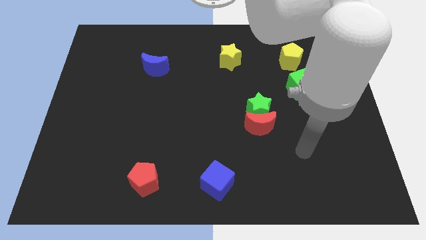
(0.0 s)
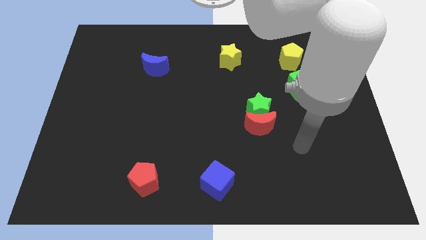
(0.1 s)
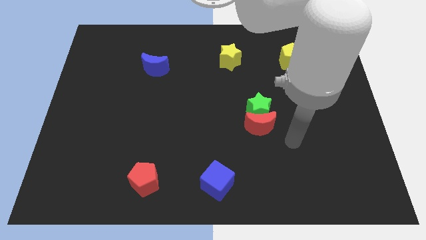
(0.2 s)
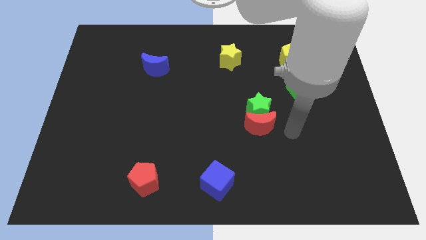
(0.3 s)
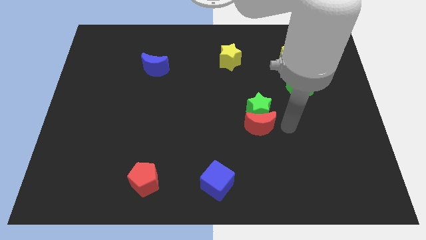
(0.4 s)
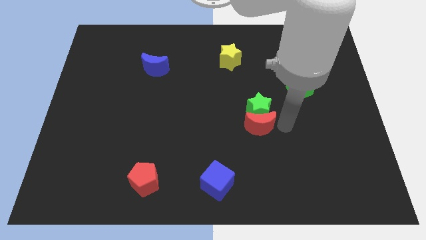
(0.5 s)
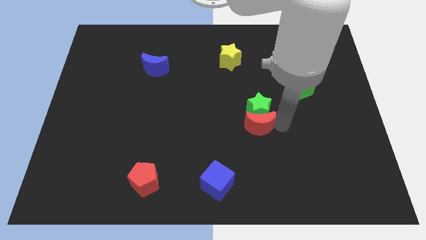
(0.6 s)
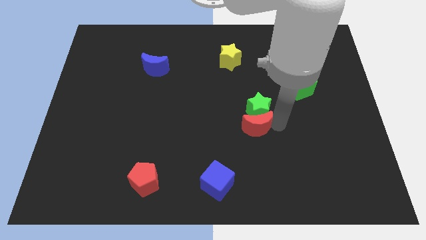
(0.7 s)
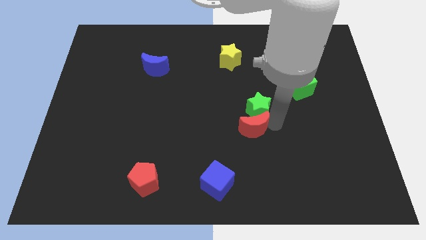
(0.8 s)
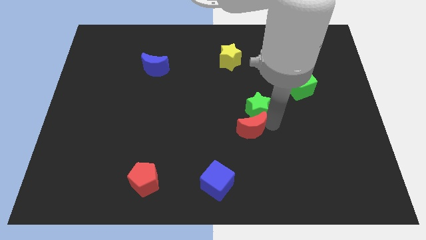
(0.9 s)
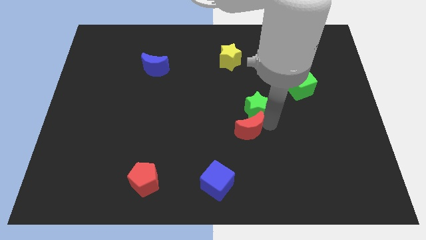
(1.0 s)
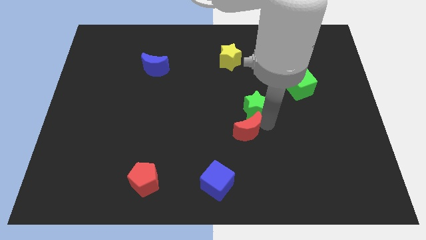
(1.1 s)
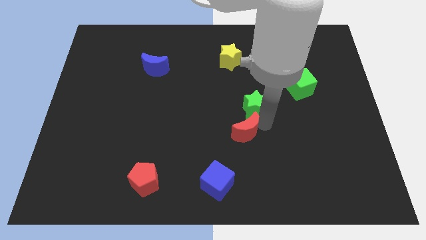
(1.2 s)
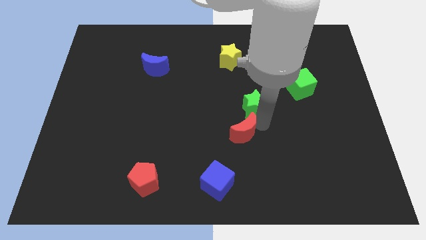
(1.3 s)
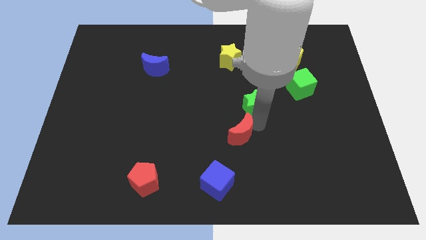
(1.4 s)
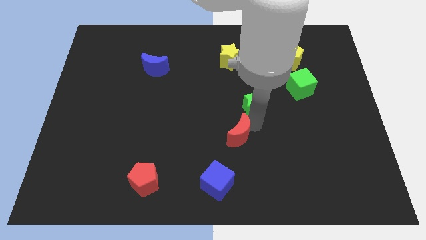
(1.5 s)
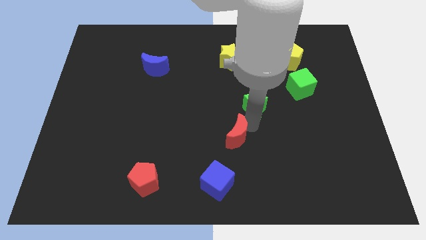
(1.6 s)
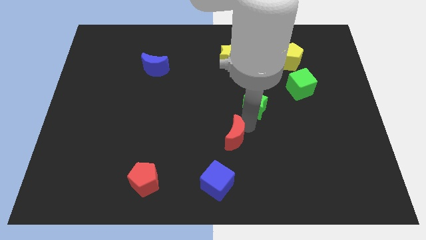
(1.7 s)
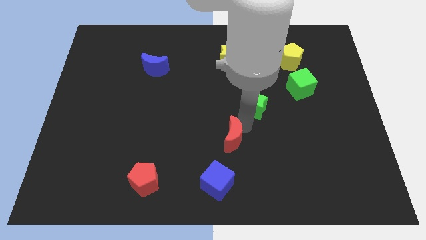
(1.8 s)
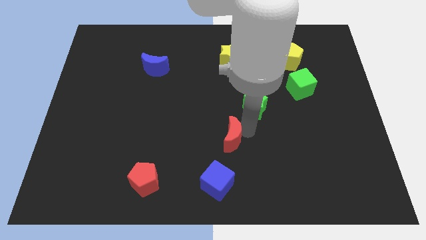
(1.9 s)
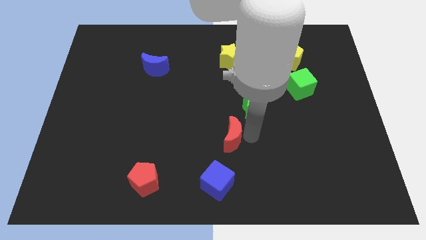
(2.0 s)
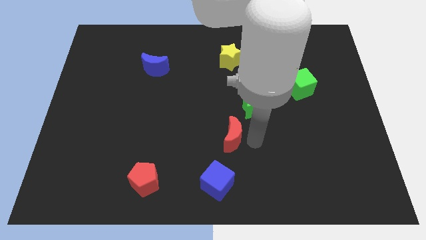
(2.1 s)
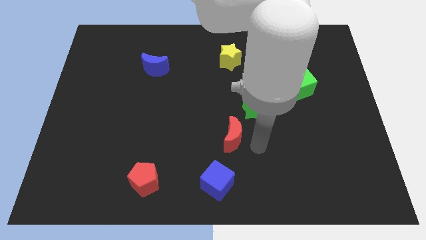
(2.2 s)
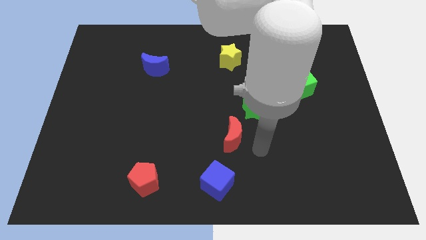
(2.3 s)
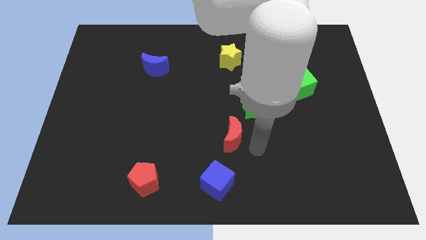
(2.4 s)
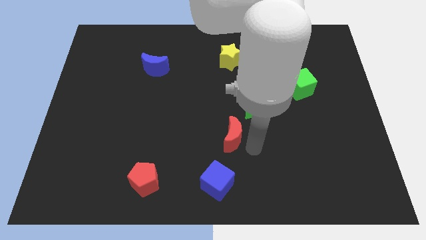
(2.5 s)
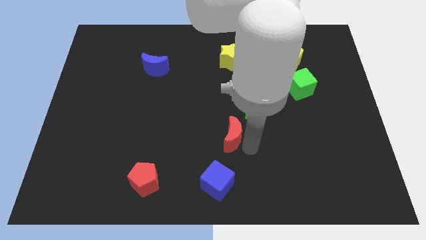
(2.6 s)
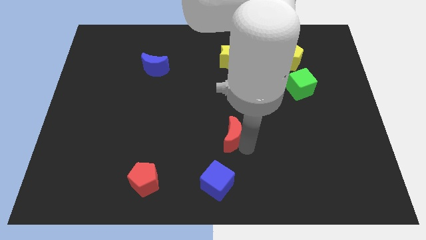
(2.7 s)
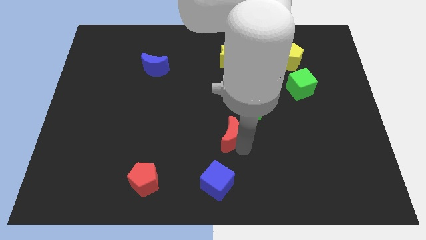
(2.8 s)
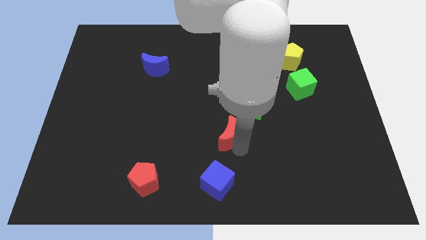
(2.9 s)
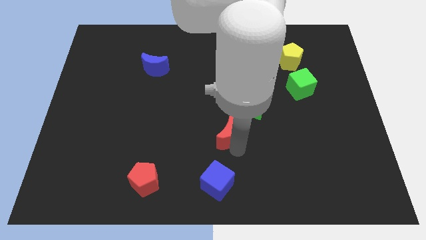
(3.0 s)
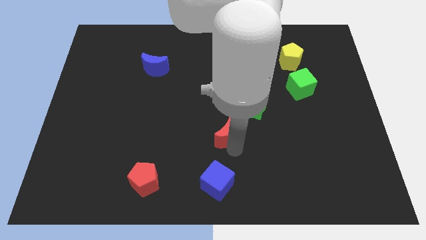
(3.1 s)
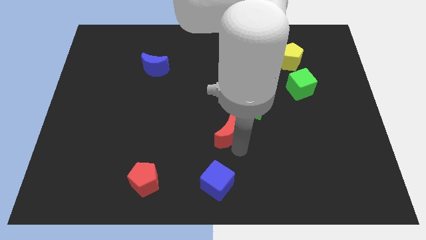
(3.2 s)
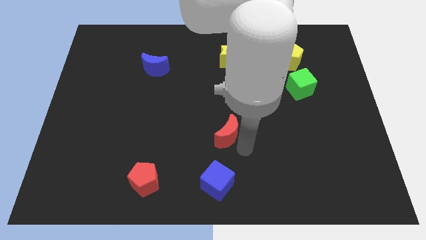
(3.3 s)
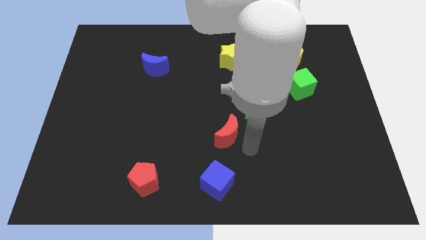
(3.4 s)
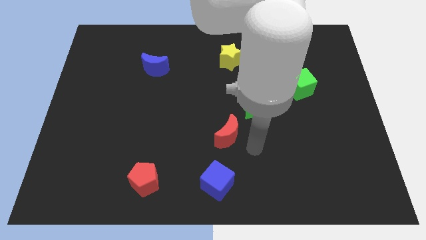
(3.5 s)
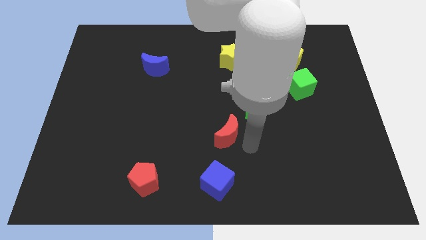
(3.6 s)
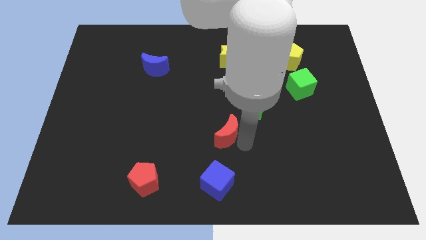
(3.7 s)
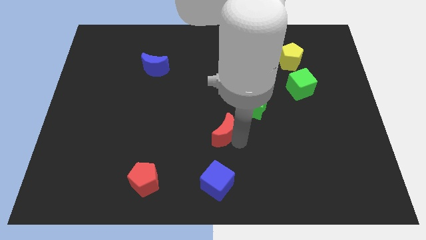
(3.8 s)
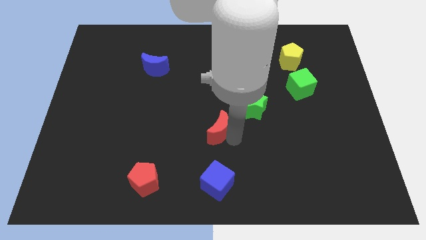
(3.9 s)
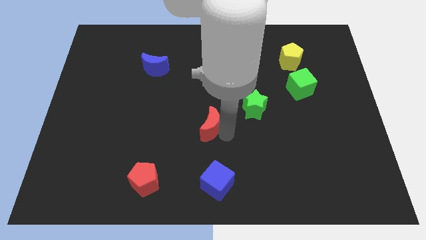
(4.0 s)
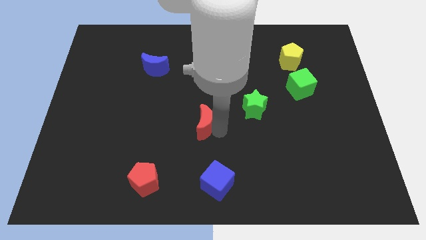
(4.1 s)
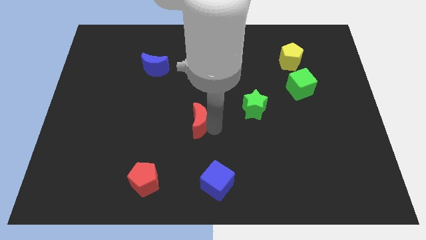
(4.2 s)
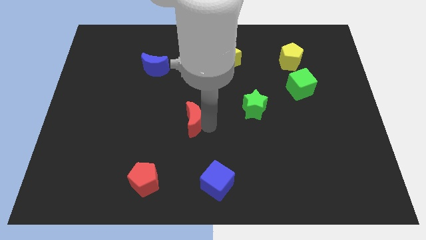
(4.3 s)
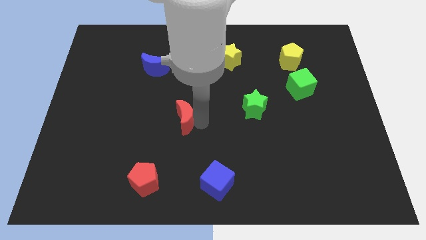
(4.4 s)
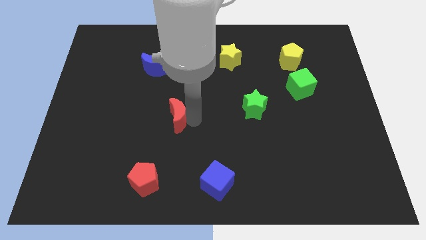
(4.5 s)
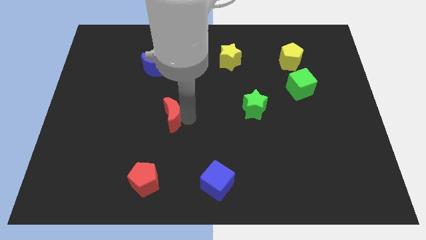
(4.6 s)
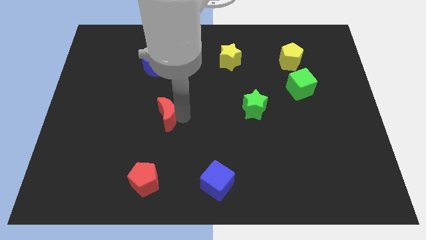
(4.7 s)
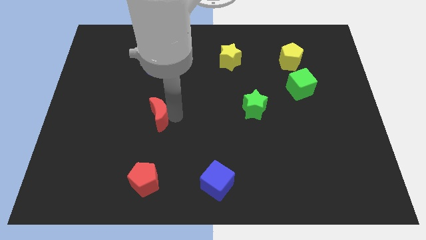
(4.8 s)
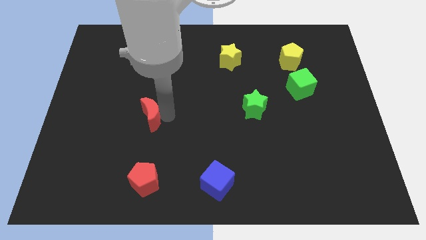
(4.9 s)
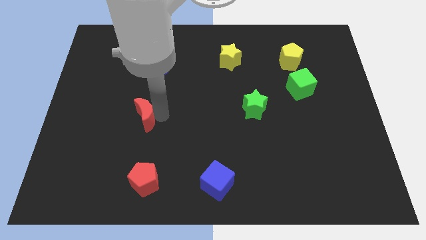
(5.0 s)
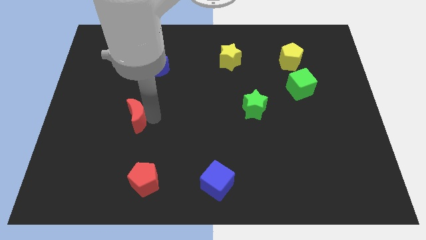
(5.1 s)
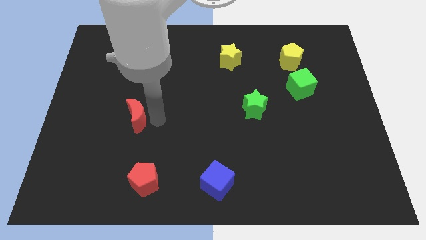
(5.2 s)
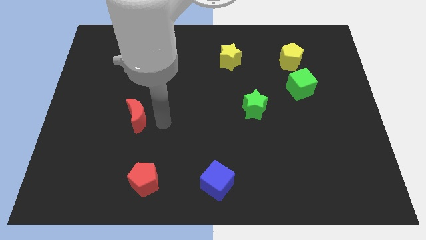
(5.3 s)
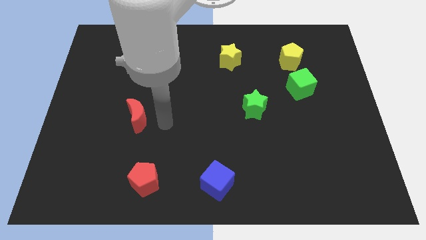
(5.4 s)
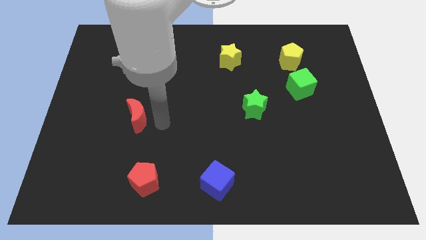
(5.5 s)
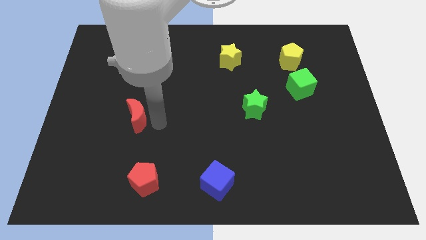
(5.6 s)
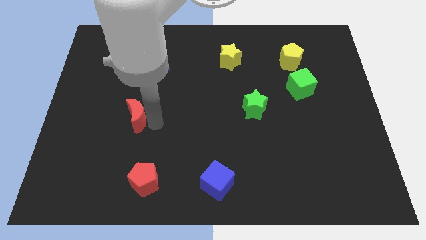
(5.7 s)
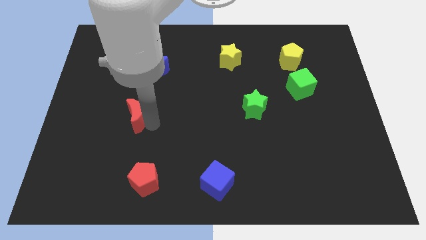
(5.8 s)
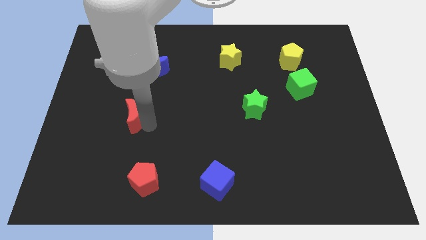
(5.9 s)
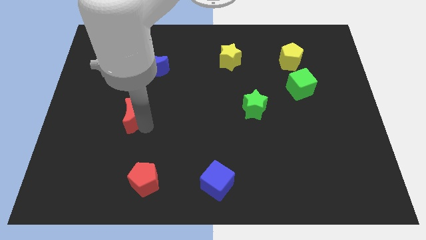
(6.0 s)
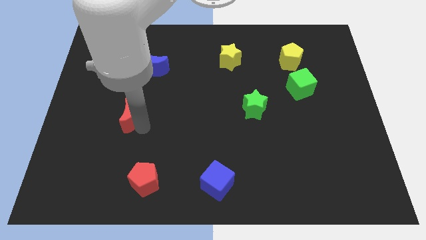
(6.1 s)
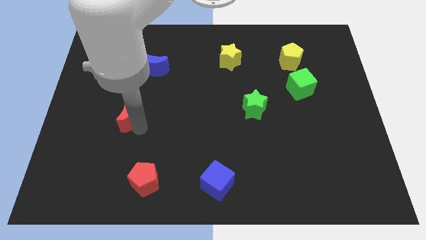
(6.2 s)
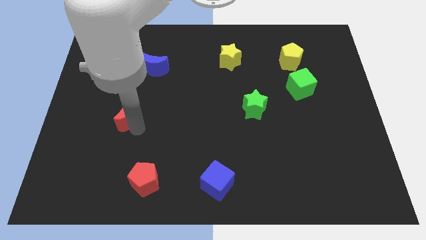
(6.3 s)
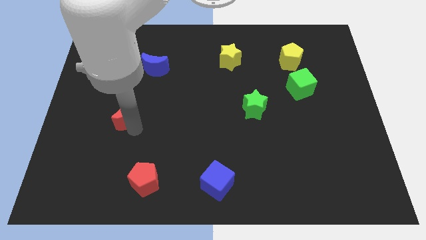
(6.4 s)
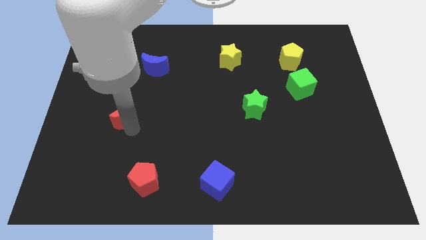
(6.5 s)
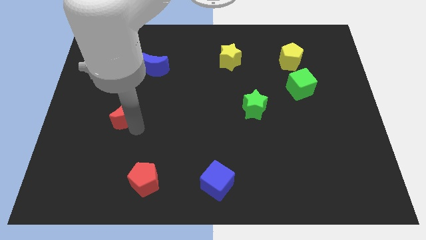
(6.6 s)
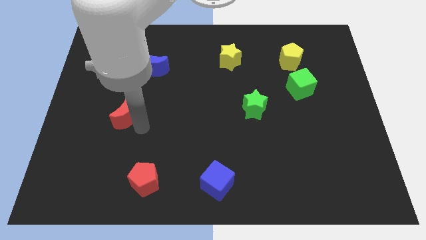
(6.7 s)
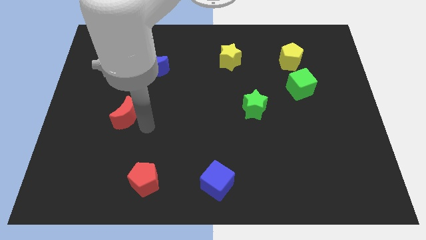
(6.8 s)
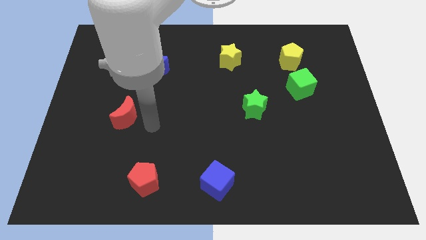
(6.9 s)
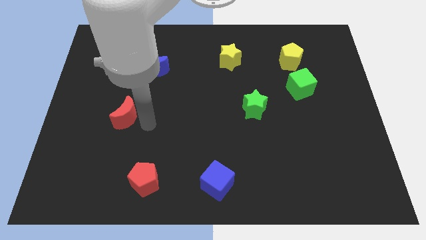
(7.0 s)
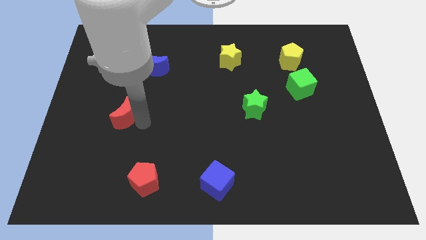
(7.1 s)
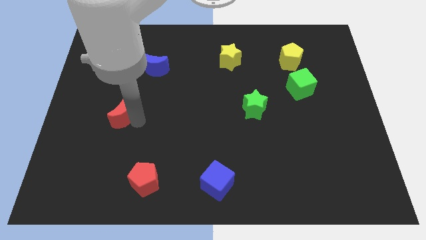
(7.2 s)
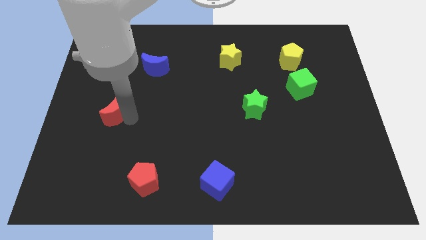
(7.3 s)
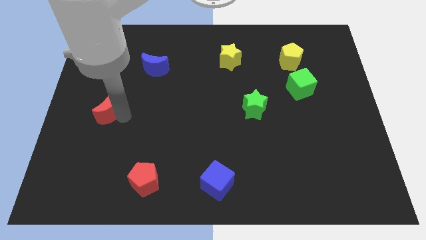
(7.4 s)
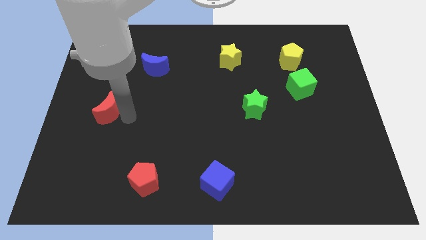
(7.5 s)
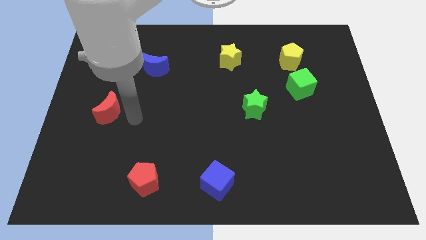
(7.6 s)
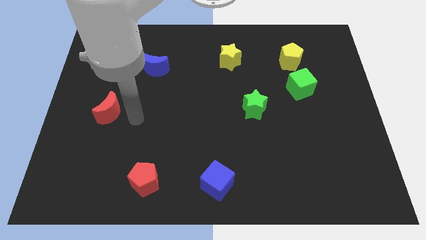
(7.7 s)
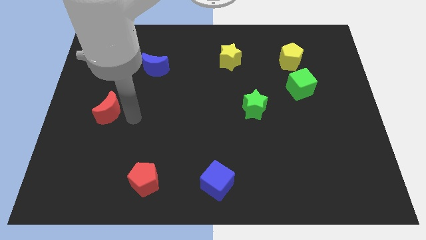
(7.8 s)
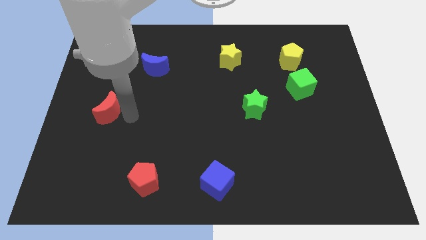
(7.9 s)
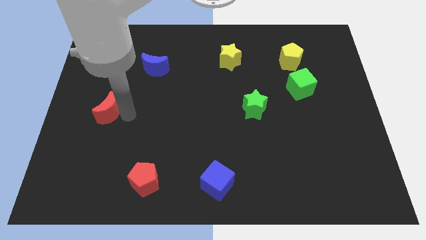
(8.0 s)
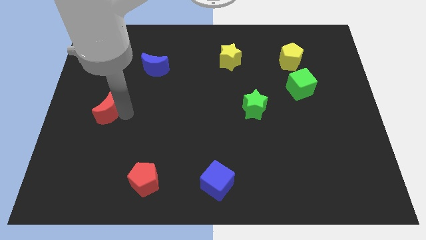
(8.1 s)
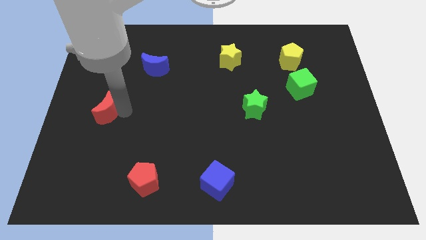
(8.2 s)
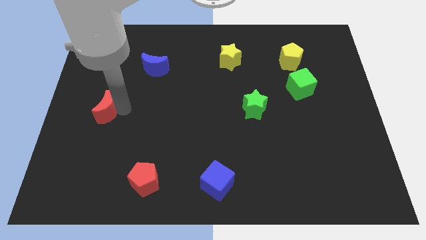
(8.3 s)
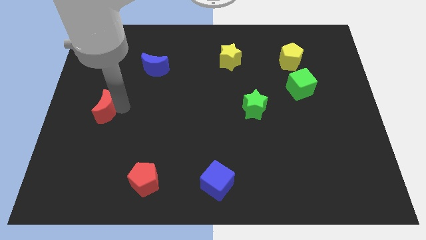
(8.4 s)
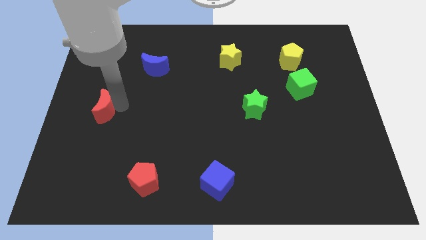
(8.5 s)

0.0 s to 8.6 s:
move the red moon to the left side of the board
